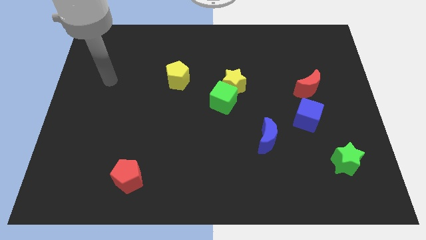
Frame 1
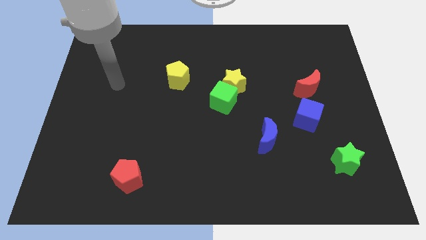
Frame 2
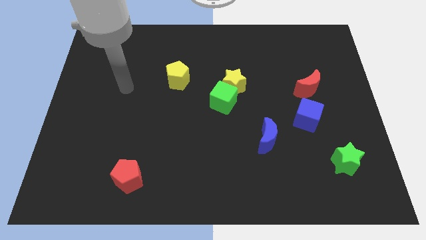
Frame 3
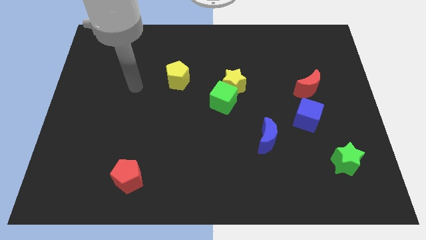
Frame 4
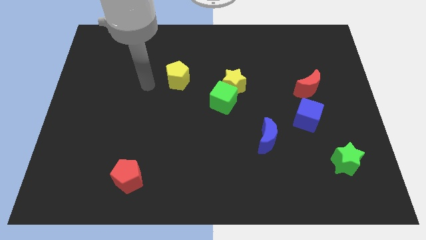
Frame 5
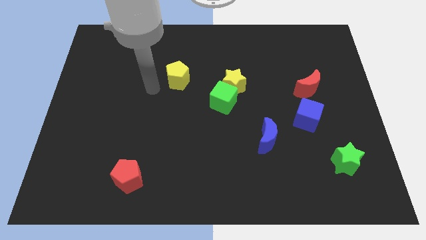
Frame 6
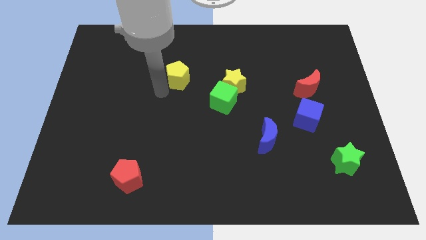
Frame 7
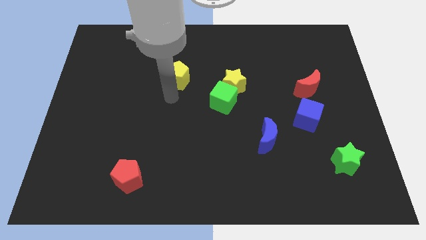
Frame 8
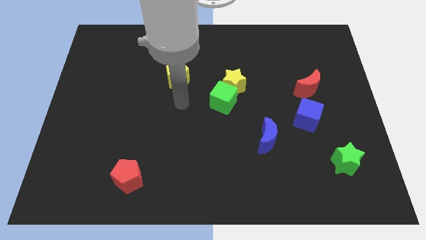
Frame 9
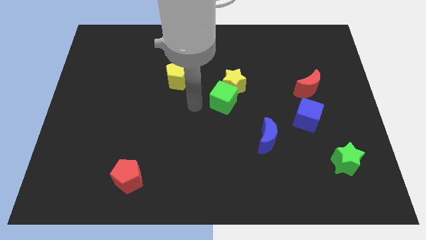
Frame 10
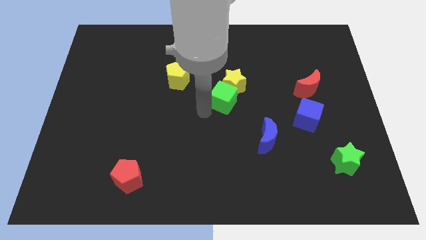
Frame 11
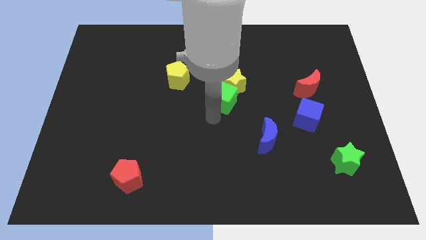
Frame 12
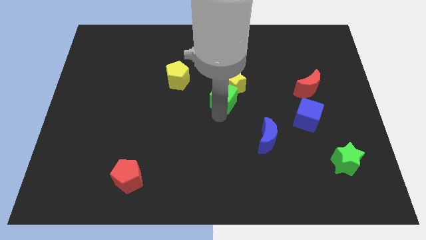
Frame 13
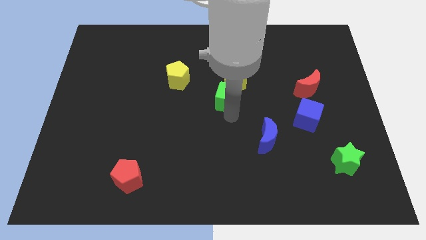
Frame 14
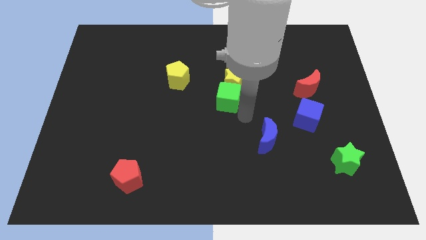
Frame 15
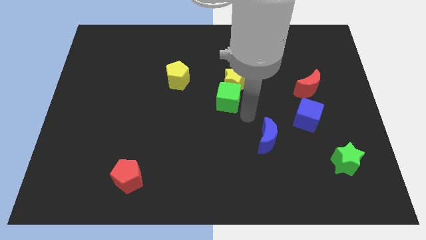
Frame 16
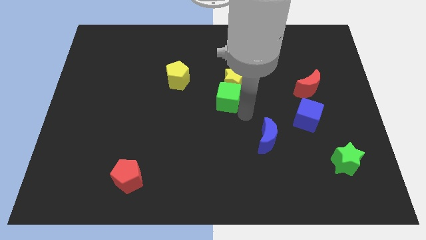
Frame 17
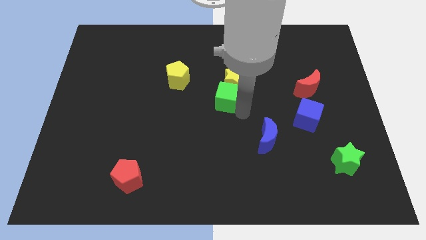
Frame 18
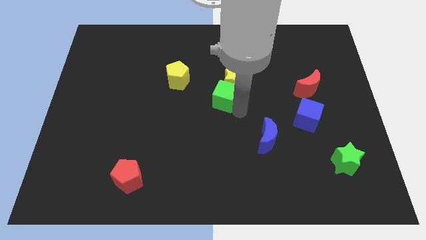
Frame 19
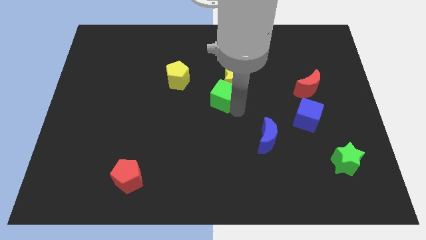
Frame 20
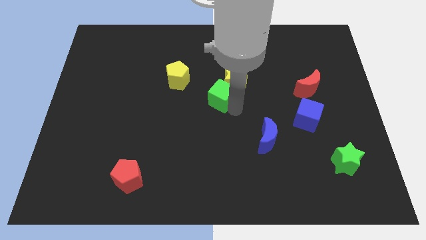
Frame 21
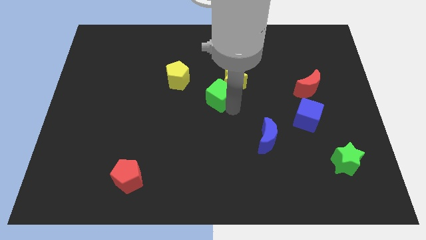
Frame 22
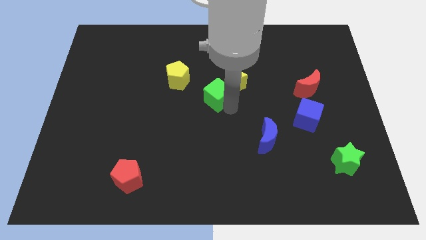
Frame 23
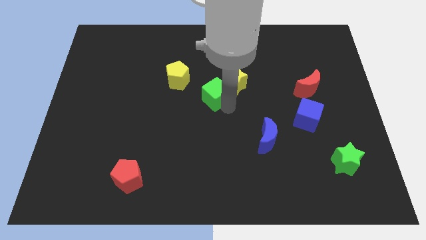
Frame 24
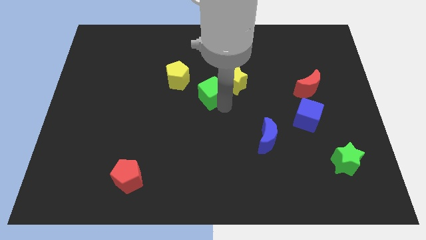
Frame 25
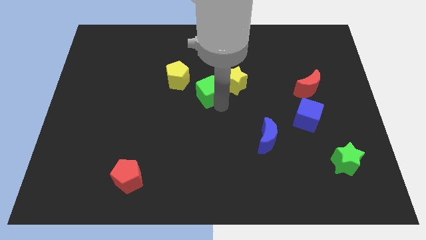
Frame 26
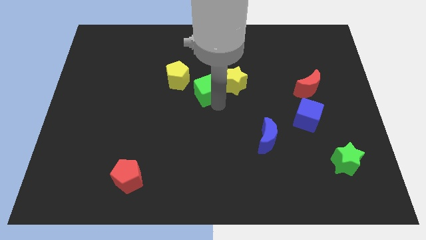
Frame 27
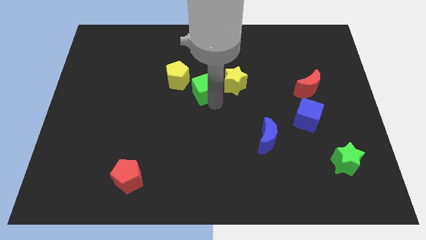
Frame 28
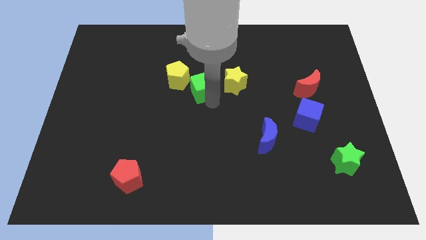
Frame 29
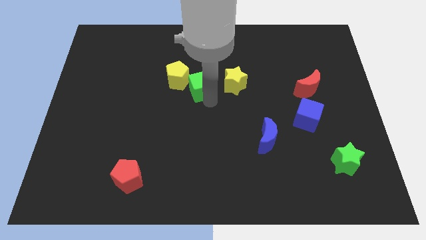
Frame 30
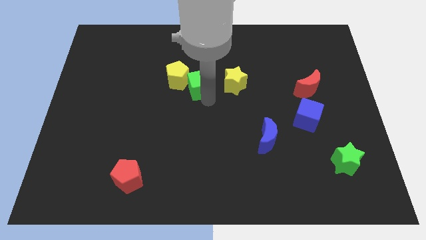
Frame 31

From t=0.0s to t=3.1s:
push the green cube upwards and to the left diagonally a little bit

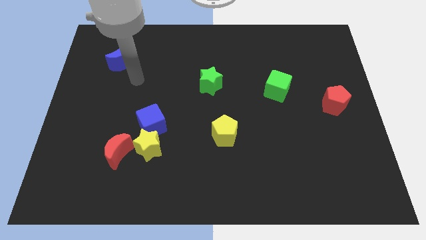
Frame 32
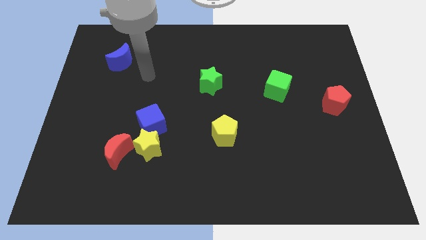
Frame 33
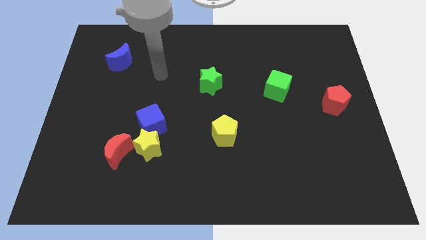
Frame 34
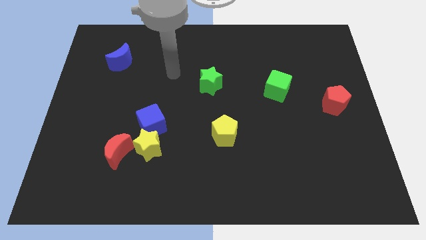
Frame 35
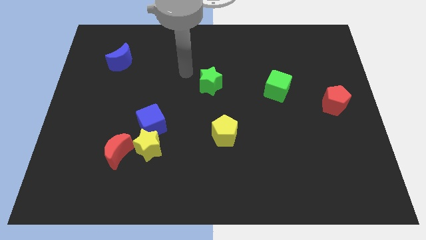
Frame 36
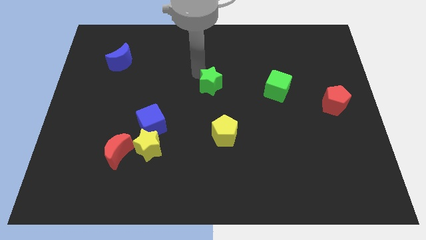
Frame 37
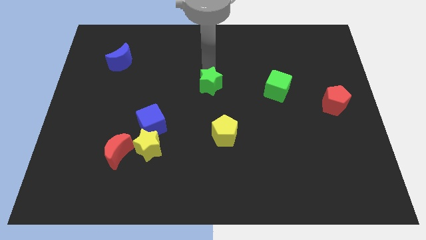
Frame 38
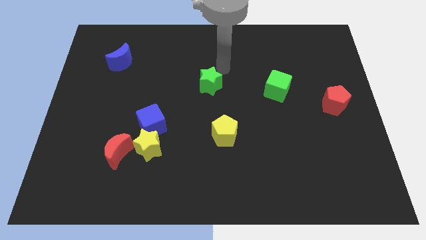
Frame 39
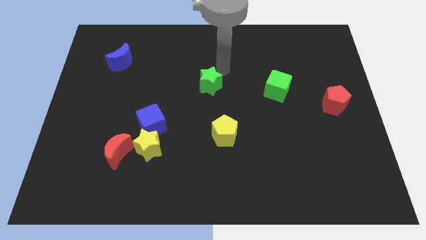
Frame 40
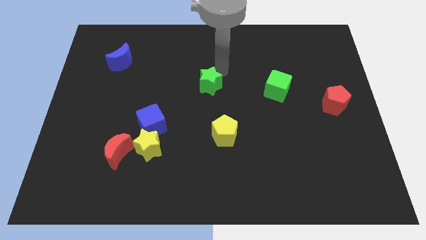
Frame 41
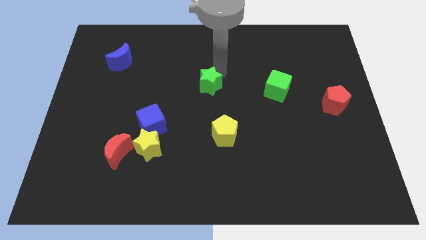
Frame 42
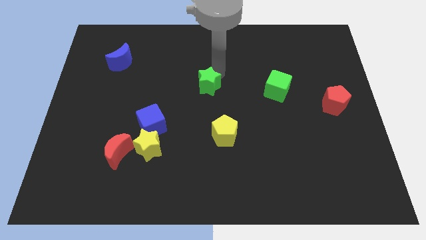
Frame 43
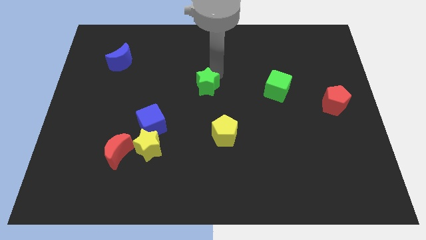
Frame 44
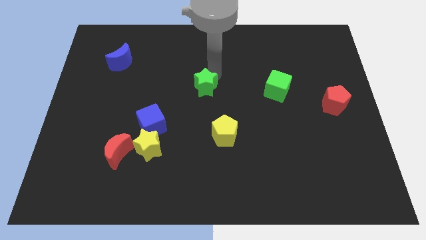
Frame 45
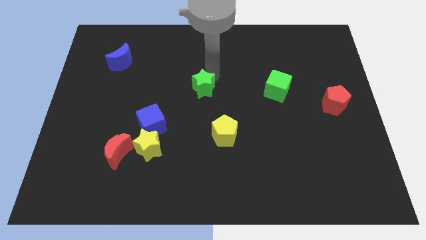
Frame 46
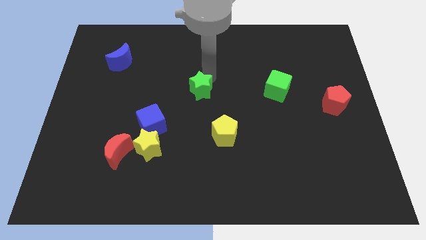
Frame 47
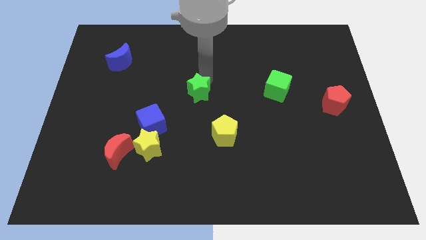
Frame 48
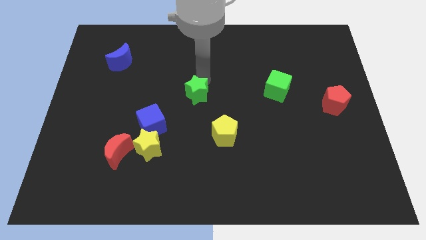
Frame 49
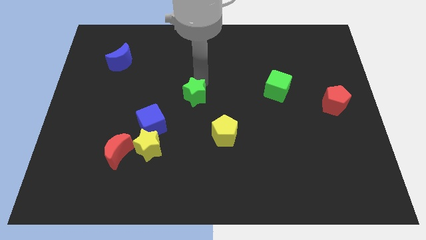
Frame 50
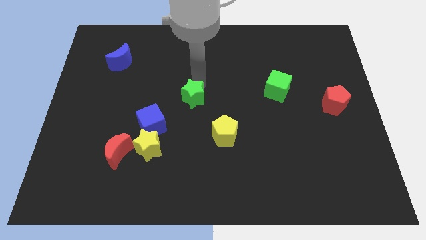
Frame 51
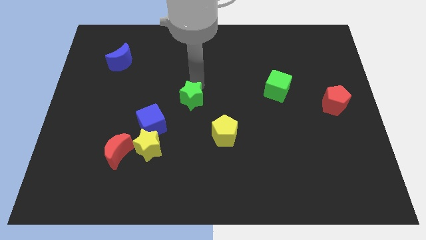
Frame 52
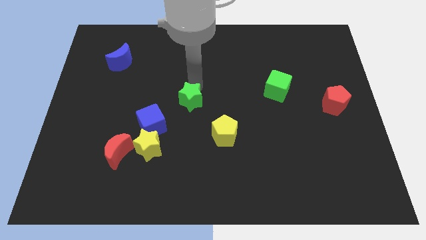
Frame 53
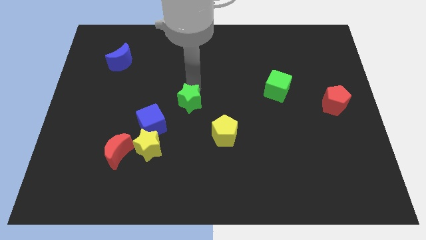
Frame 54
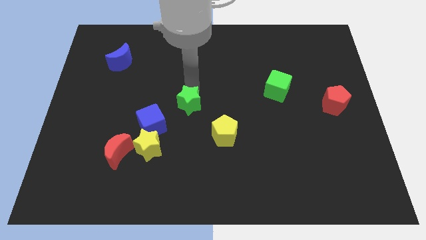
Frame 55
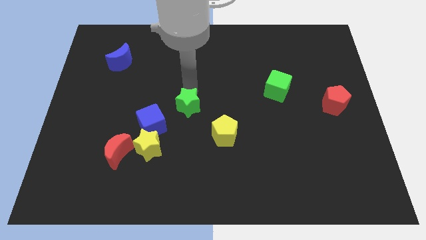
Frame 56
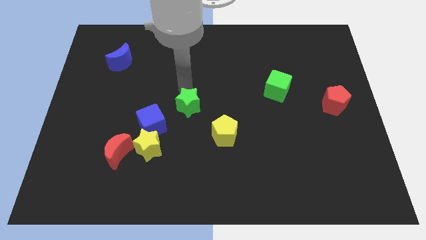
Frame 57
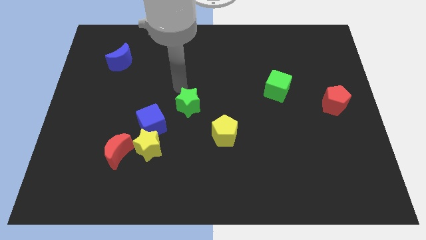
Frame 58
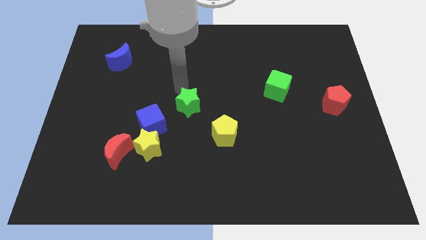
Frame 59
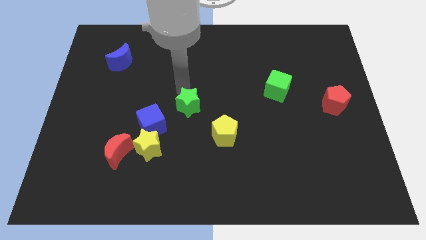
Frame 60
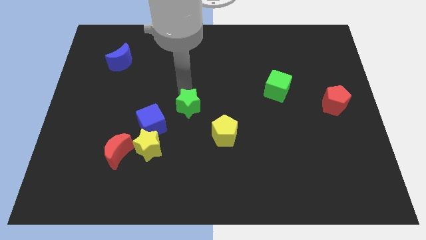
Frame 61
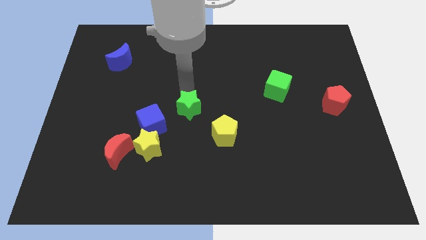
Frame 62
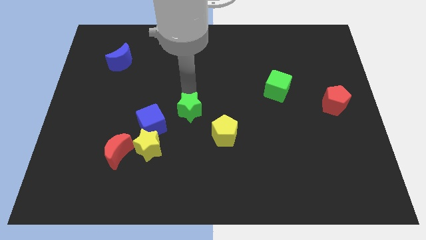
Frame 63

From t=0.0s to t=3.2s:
slightly move the green star downwards

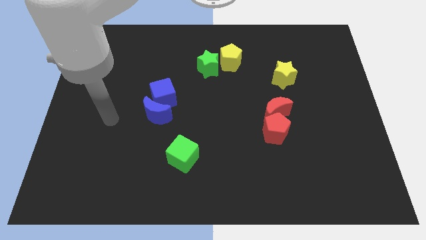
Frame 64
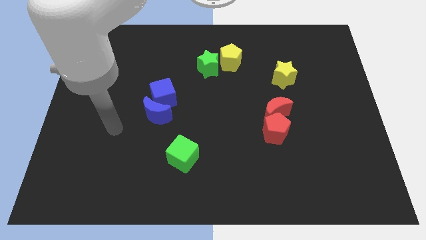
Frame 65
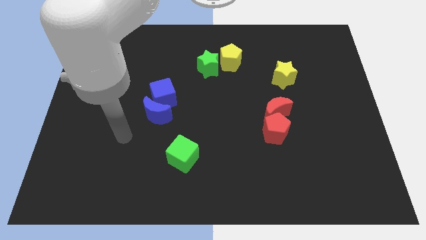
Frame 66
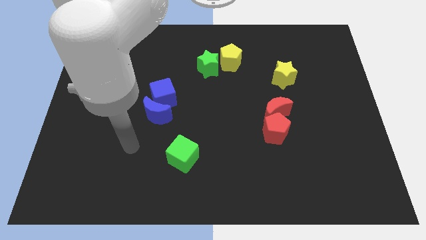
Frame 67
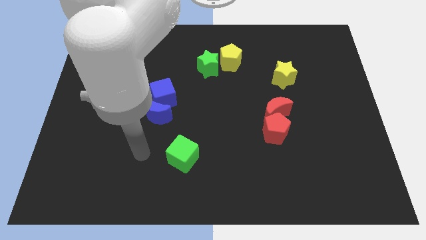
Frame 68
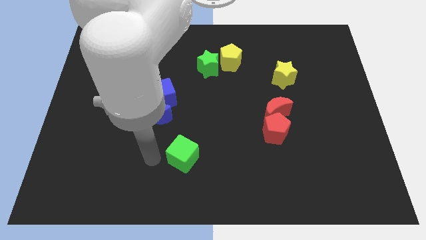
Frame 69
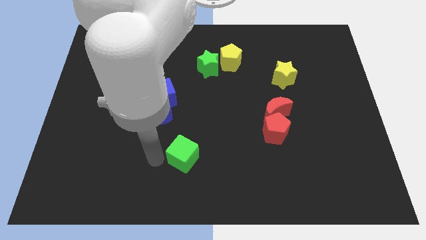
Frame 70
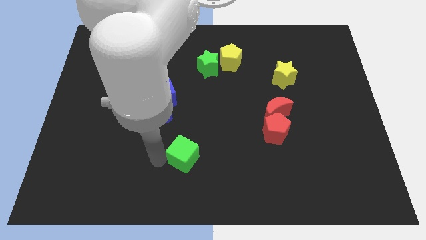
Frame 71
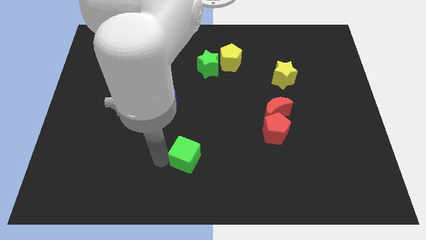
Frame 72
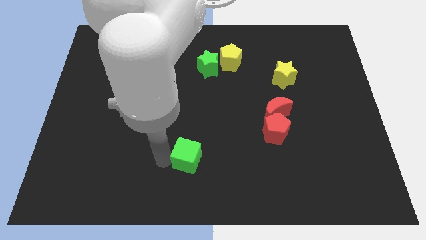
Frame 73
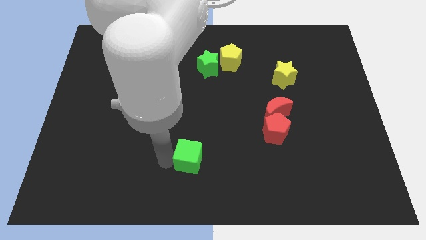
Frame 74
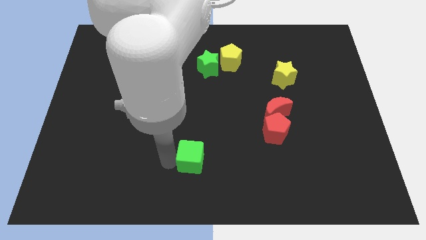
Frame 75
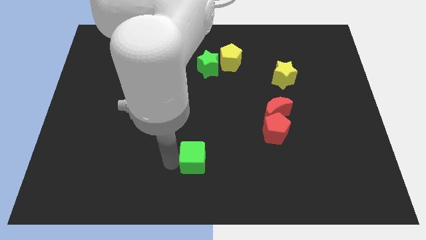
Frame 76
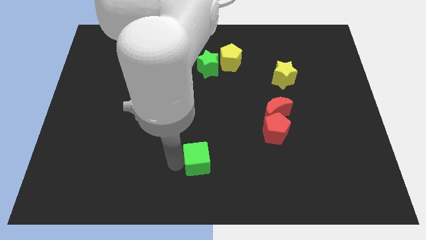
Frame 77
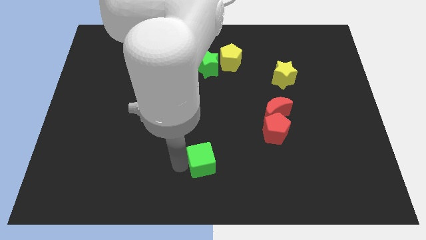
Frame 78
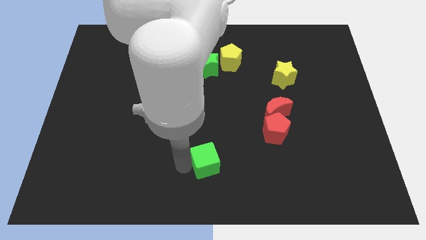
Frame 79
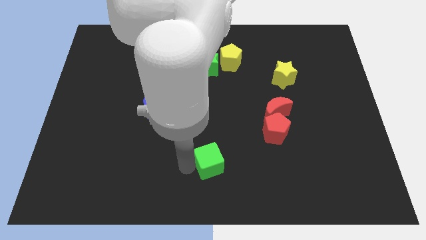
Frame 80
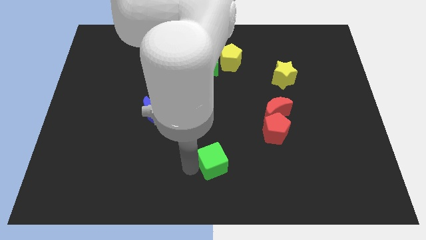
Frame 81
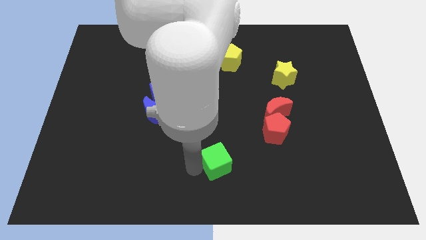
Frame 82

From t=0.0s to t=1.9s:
slightly slide the green cube to the right

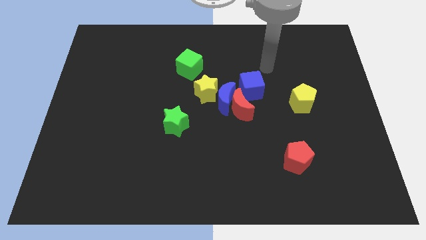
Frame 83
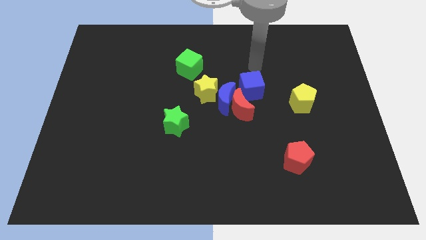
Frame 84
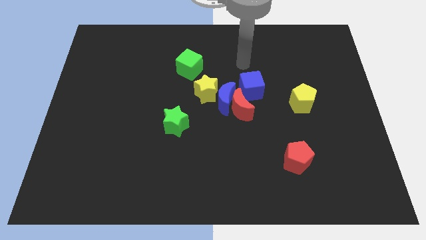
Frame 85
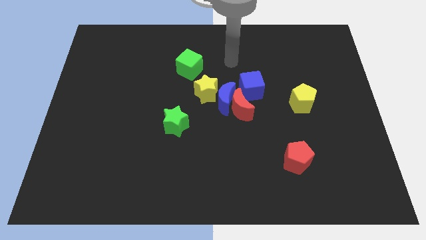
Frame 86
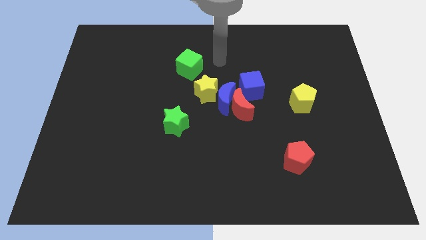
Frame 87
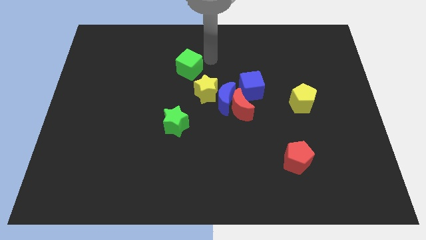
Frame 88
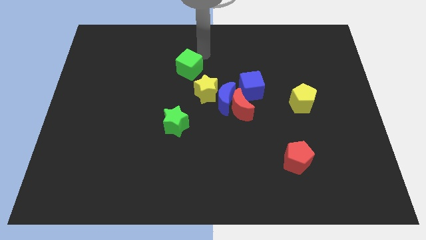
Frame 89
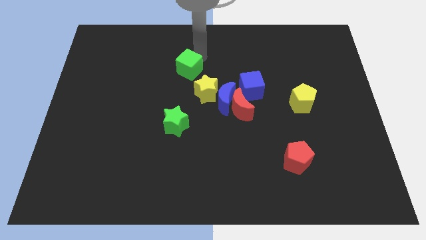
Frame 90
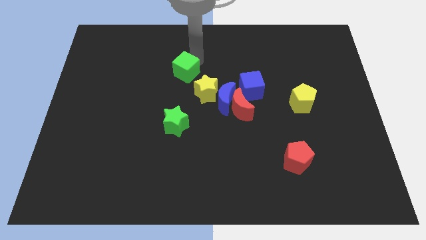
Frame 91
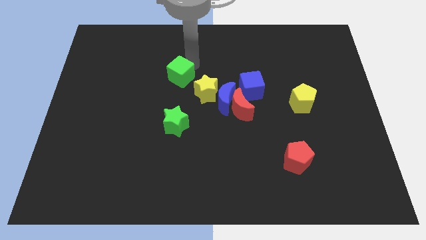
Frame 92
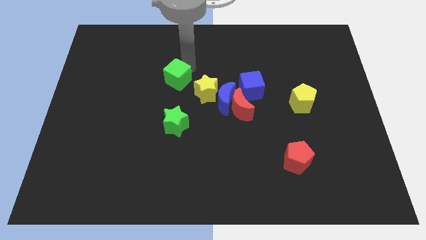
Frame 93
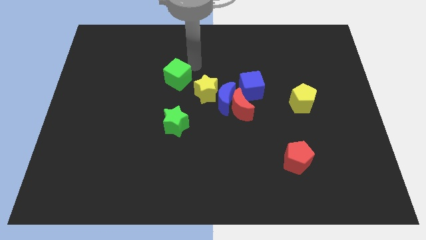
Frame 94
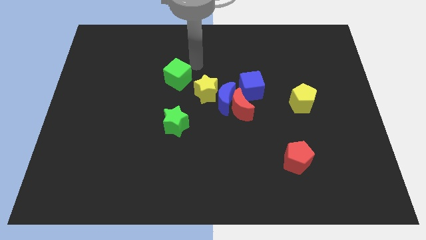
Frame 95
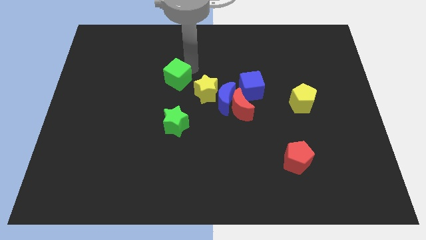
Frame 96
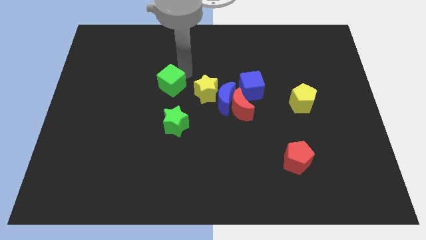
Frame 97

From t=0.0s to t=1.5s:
move the green cube downwards and left somewhat
